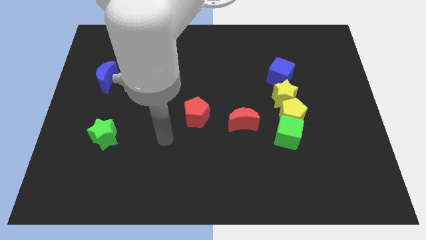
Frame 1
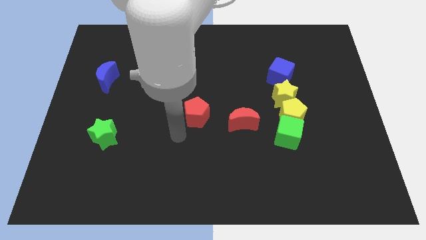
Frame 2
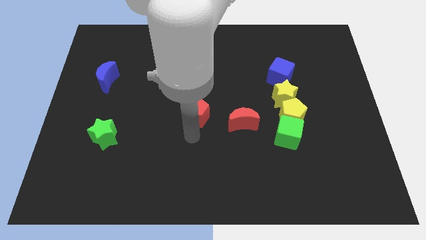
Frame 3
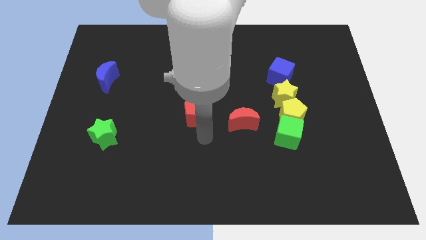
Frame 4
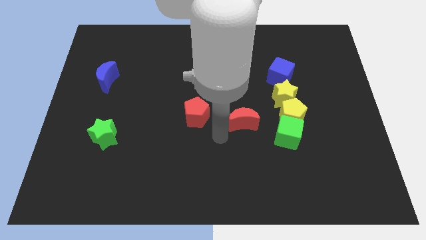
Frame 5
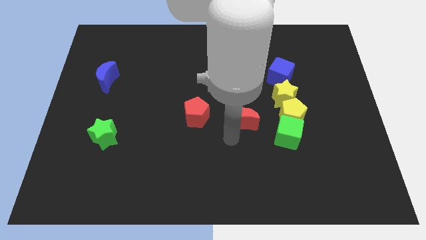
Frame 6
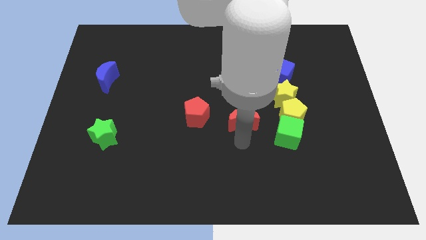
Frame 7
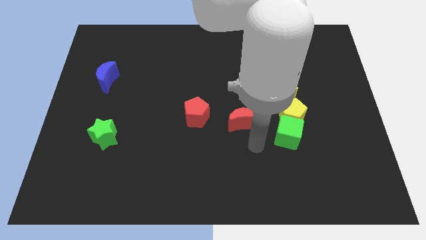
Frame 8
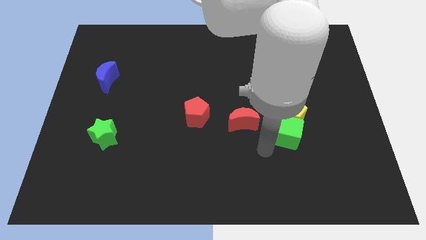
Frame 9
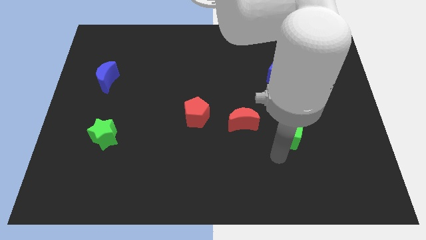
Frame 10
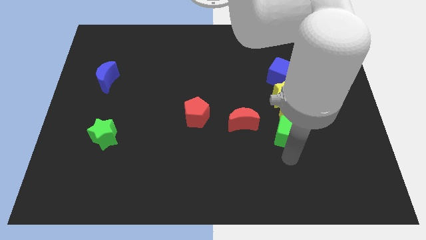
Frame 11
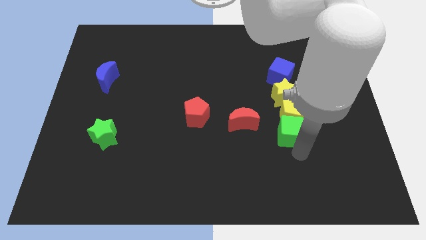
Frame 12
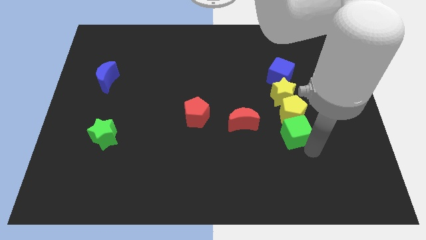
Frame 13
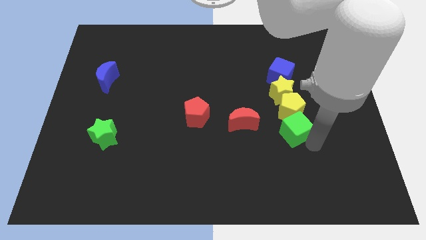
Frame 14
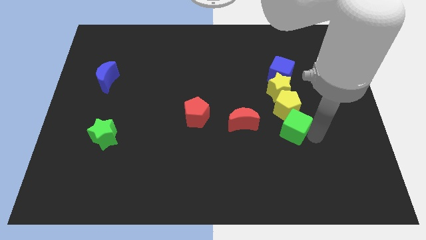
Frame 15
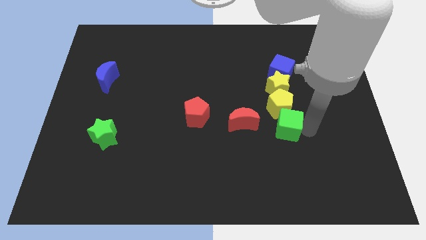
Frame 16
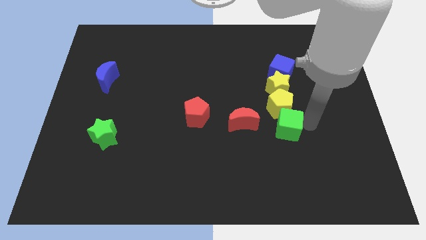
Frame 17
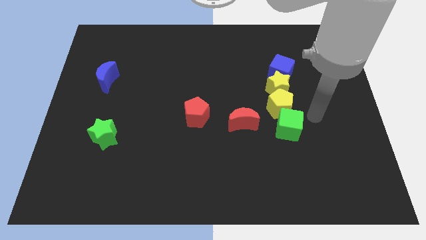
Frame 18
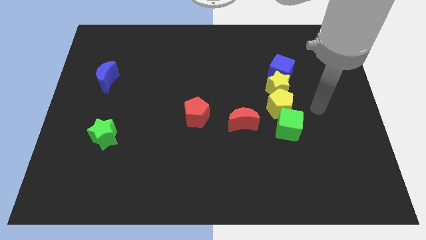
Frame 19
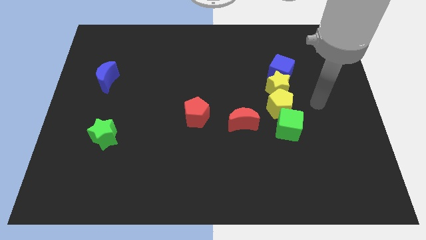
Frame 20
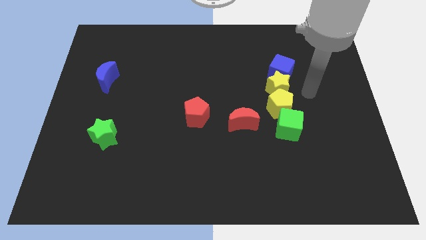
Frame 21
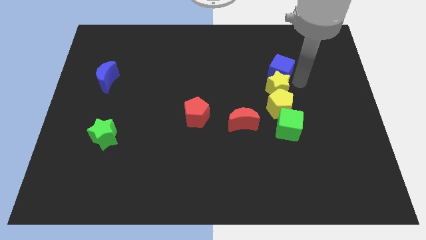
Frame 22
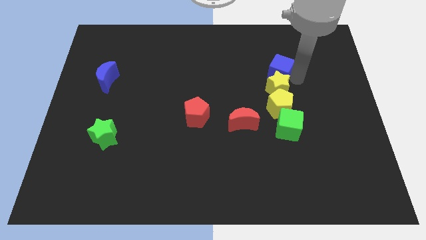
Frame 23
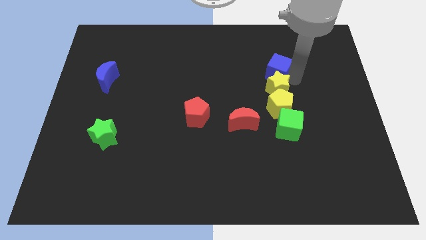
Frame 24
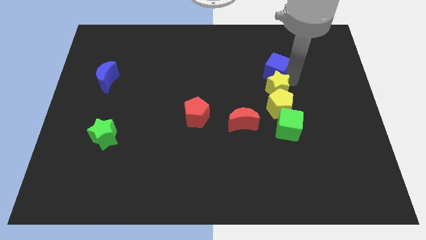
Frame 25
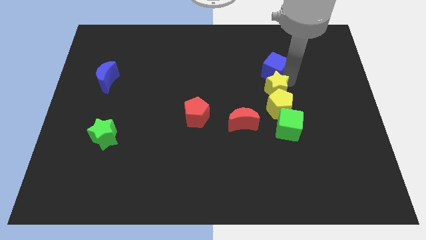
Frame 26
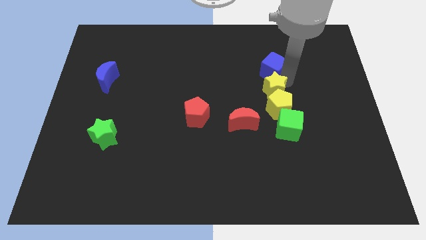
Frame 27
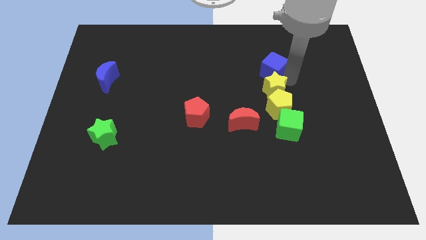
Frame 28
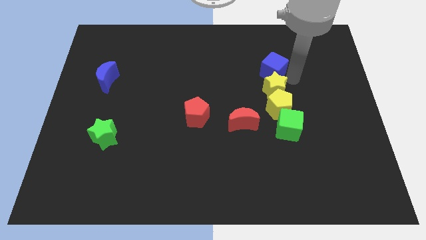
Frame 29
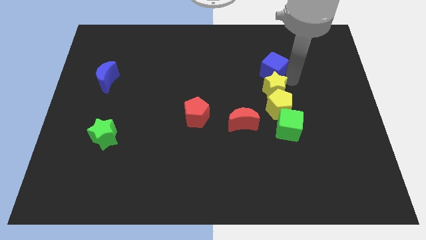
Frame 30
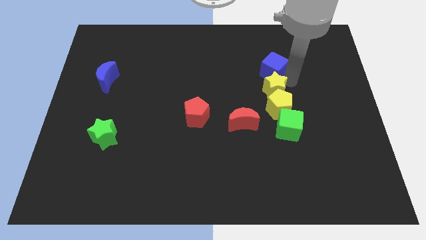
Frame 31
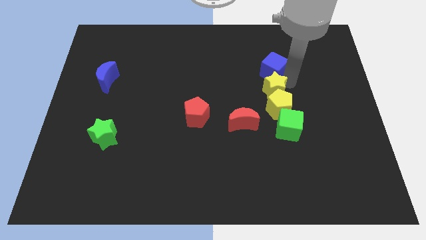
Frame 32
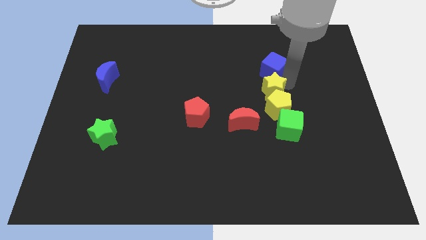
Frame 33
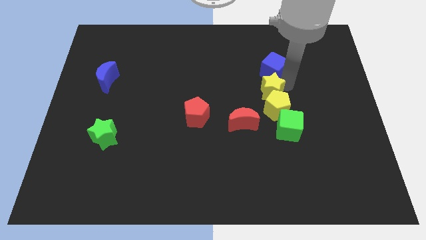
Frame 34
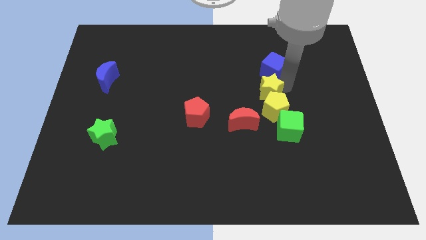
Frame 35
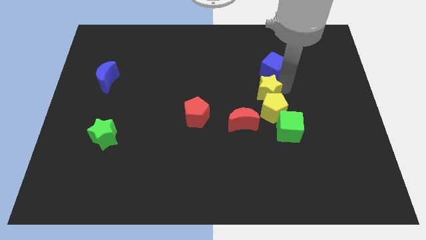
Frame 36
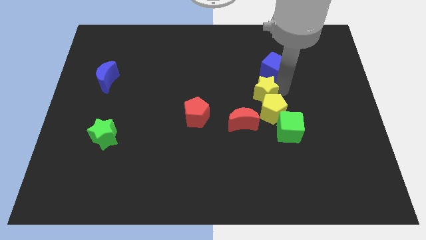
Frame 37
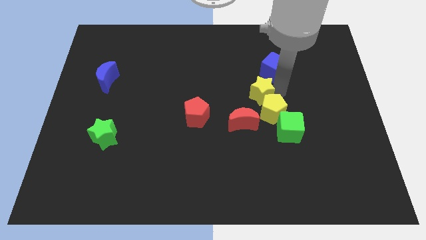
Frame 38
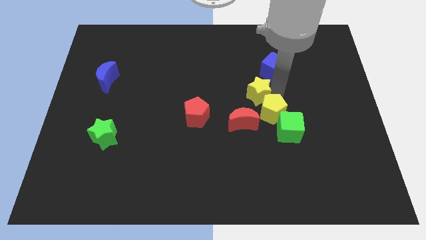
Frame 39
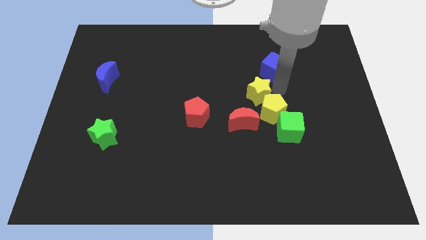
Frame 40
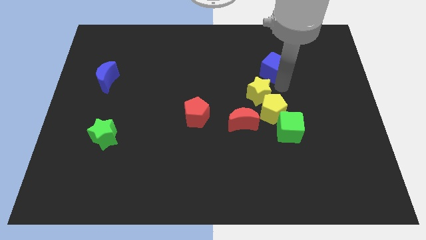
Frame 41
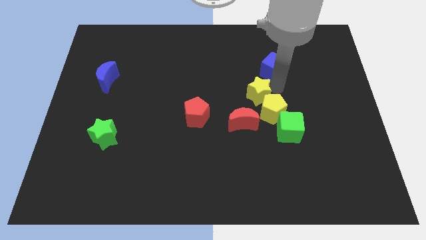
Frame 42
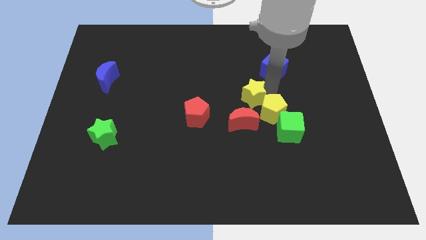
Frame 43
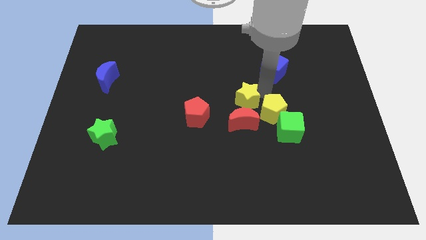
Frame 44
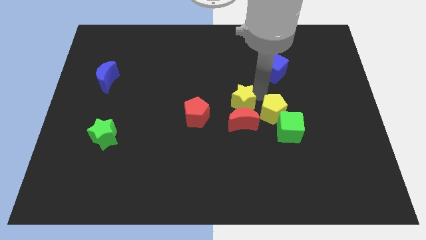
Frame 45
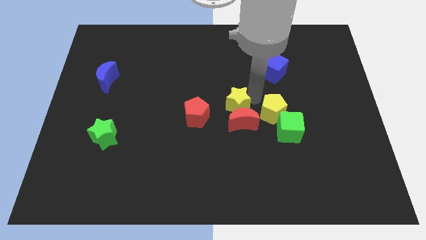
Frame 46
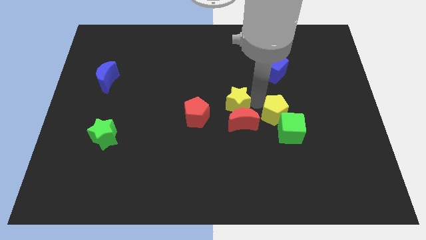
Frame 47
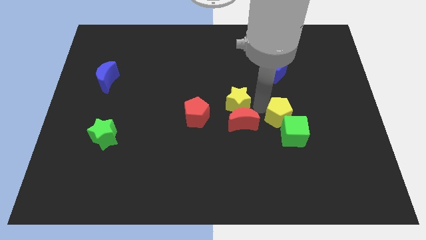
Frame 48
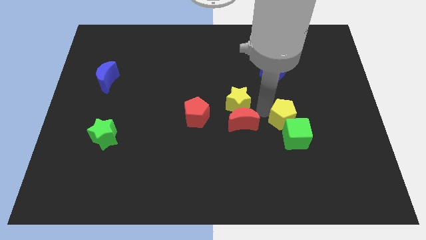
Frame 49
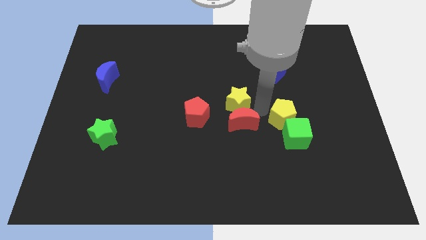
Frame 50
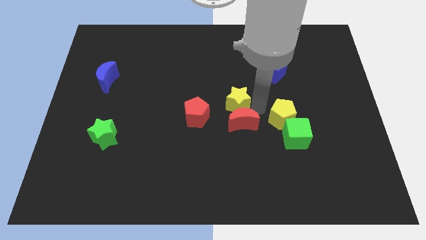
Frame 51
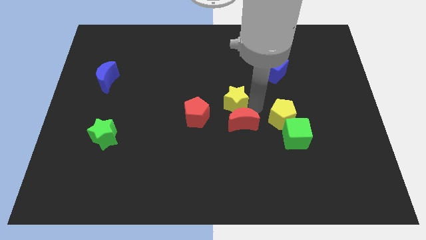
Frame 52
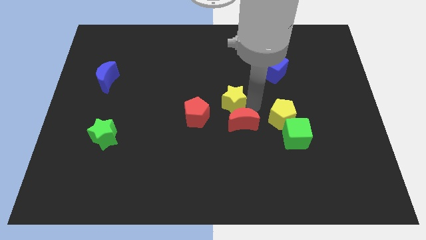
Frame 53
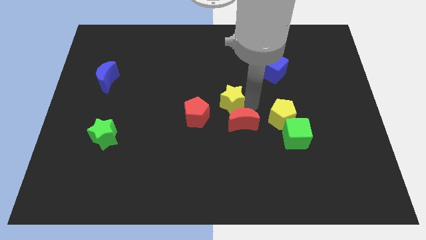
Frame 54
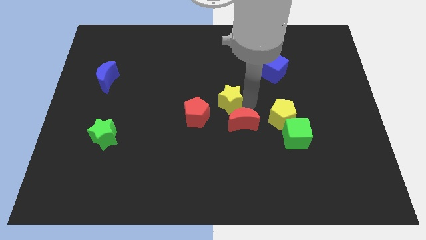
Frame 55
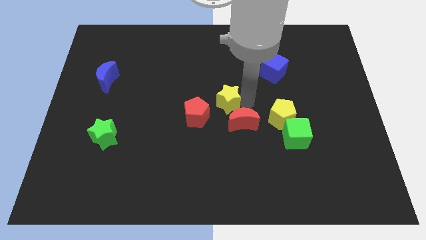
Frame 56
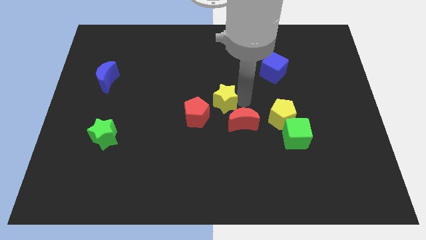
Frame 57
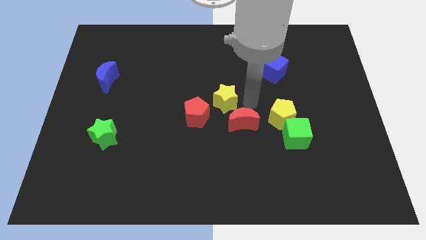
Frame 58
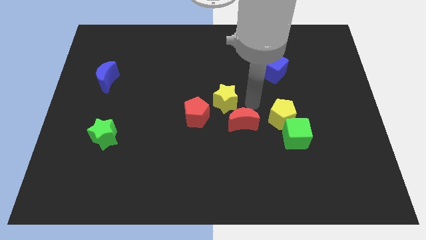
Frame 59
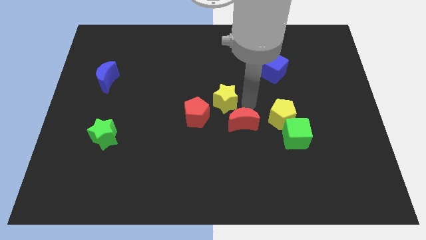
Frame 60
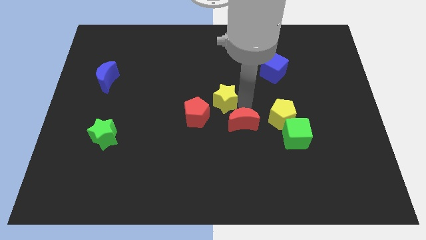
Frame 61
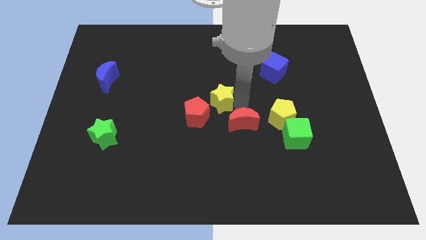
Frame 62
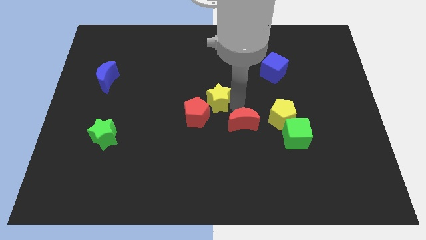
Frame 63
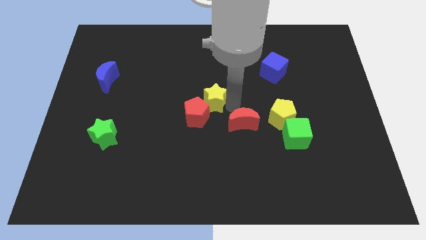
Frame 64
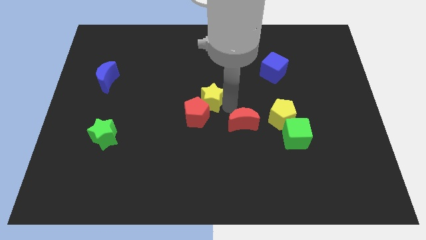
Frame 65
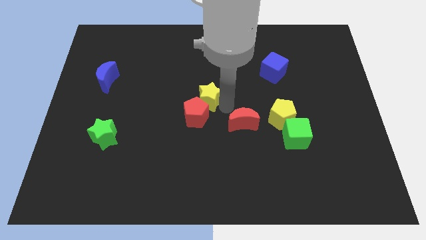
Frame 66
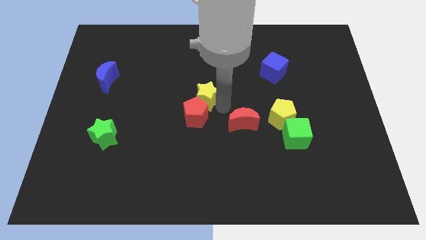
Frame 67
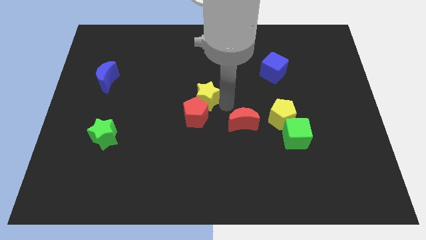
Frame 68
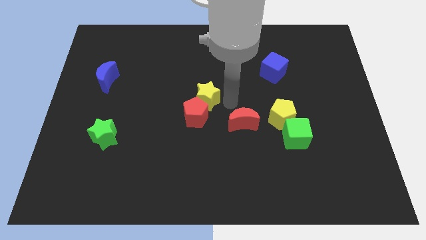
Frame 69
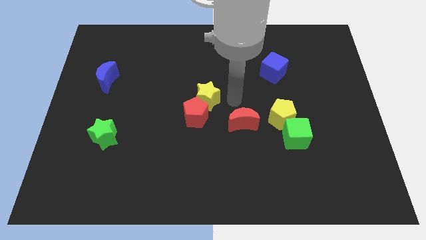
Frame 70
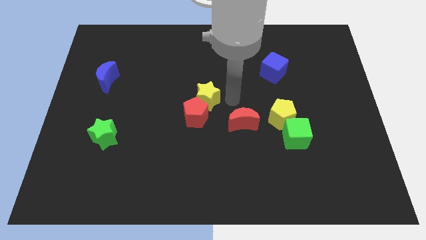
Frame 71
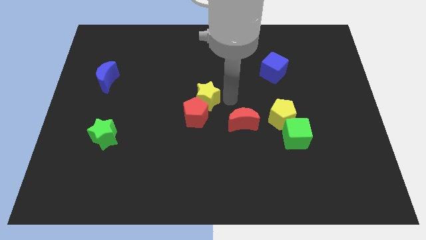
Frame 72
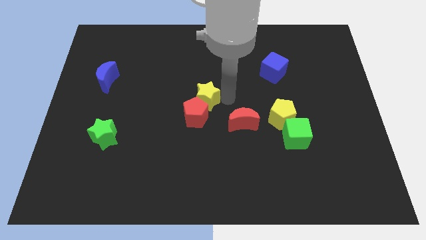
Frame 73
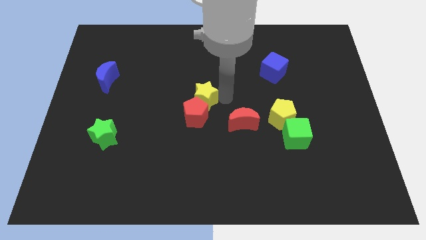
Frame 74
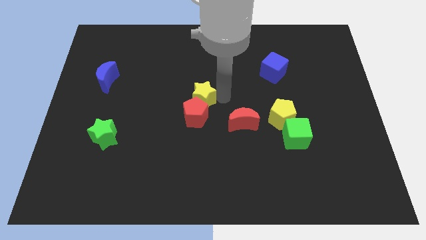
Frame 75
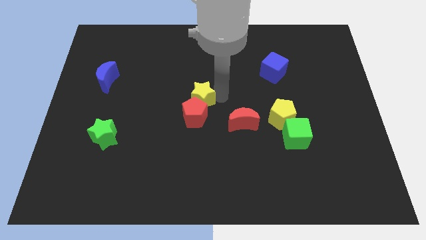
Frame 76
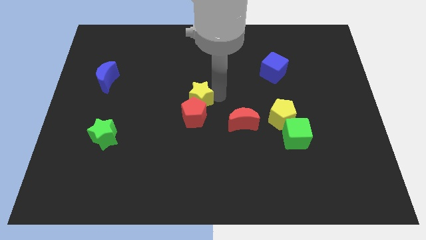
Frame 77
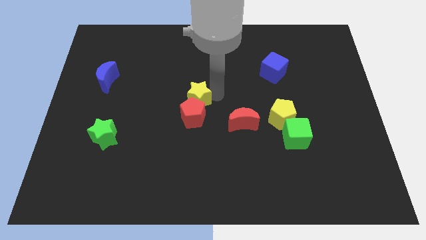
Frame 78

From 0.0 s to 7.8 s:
move the yellow star to the left

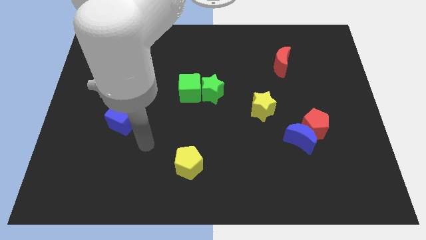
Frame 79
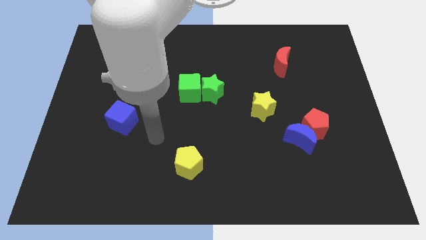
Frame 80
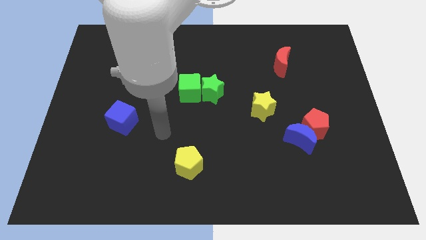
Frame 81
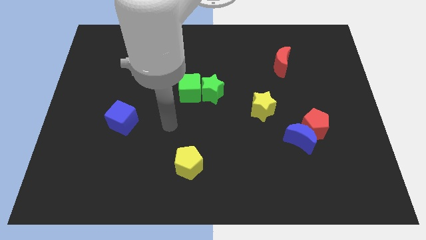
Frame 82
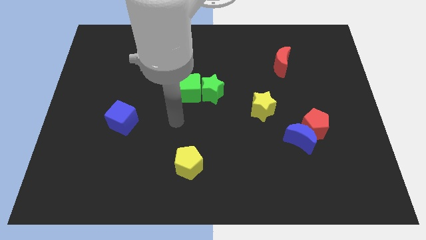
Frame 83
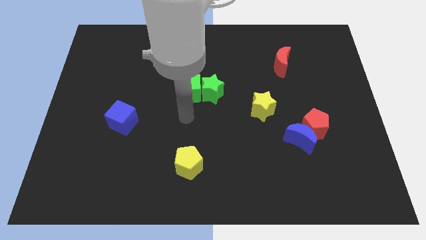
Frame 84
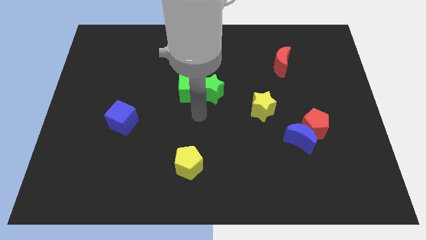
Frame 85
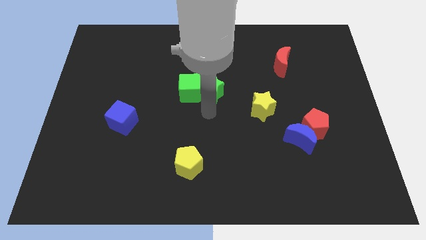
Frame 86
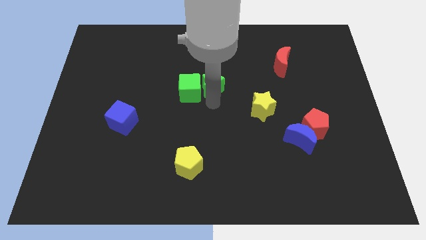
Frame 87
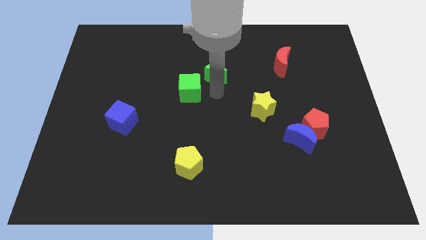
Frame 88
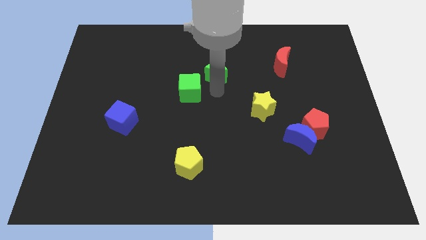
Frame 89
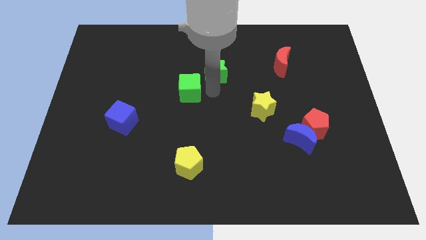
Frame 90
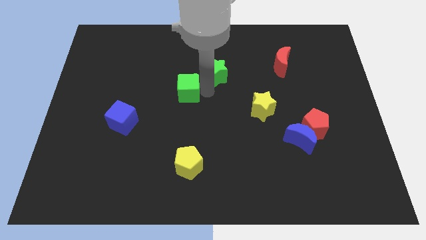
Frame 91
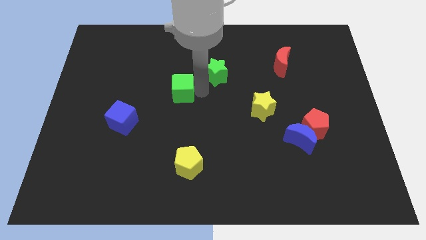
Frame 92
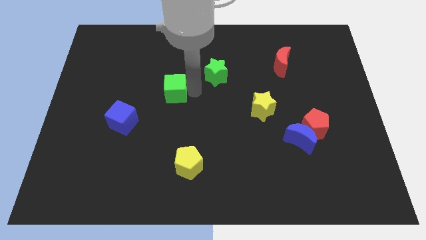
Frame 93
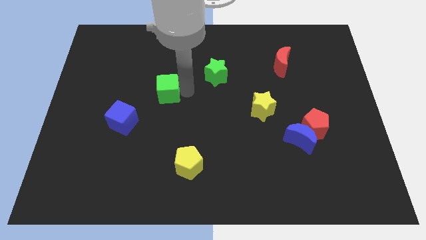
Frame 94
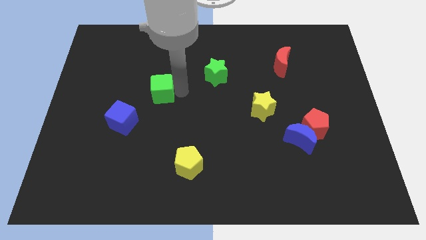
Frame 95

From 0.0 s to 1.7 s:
push the green cube a little left
